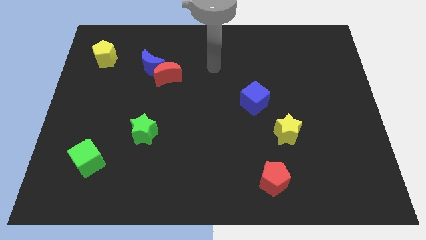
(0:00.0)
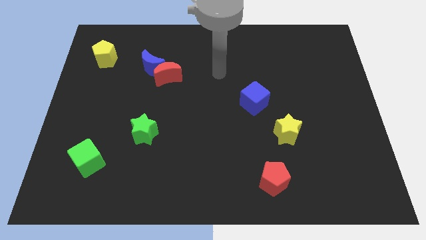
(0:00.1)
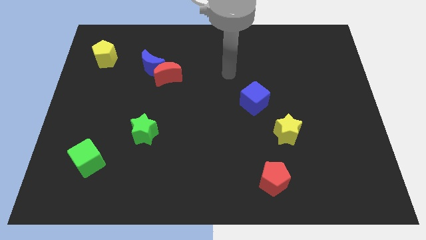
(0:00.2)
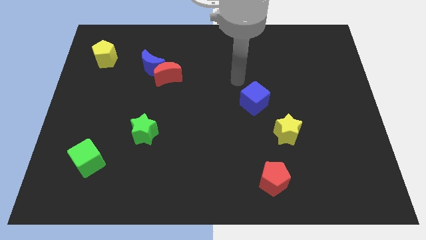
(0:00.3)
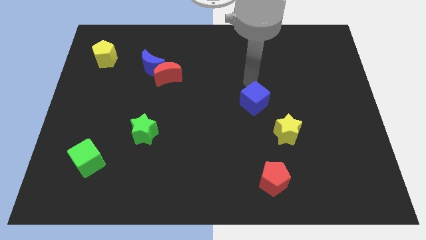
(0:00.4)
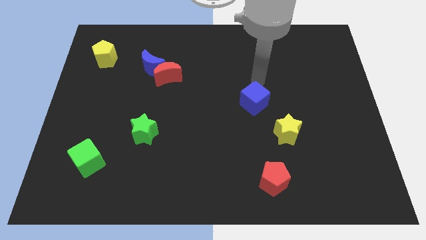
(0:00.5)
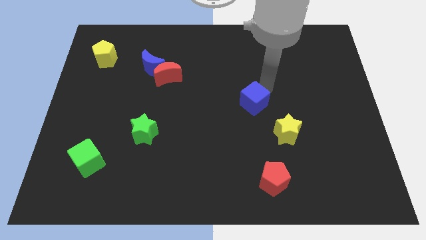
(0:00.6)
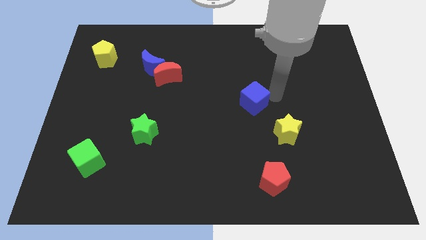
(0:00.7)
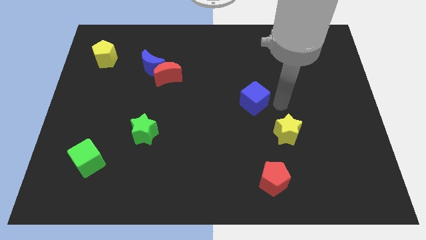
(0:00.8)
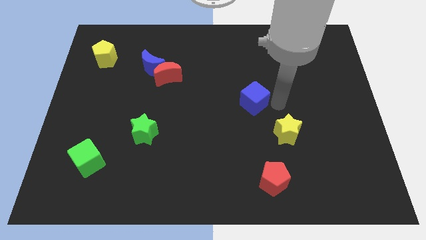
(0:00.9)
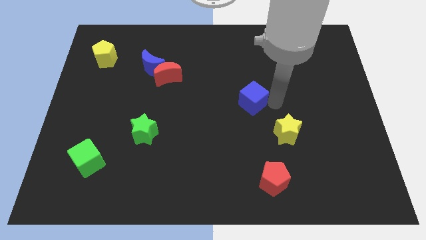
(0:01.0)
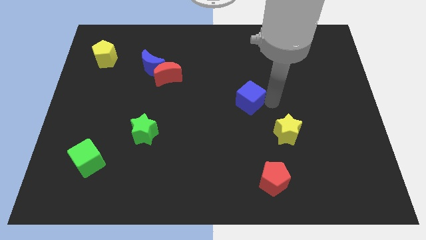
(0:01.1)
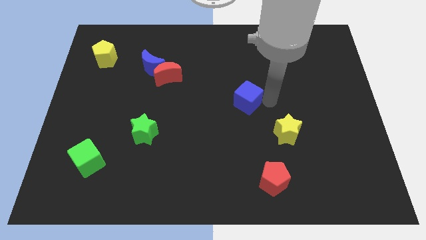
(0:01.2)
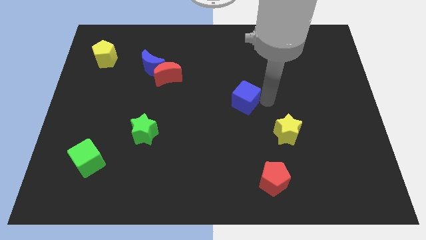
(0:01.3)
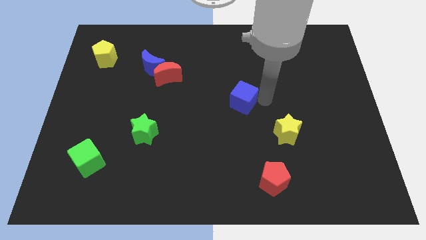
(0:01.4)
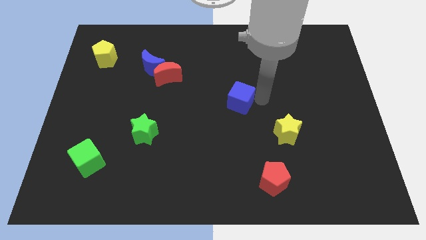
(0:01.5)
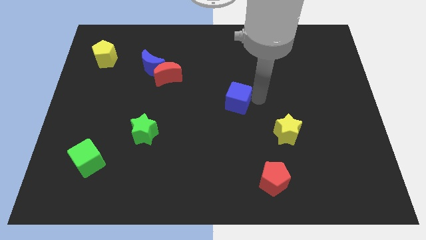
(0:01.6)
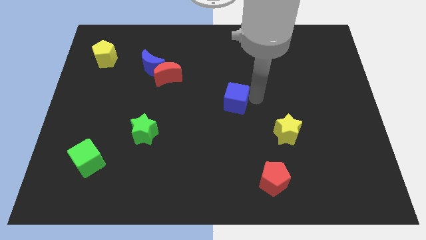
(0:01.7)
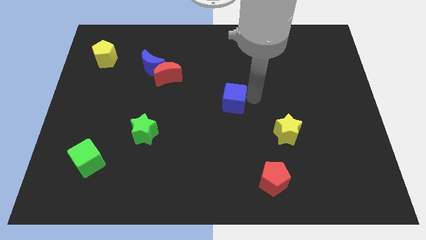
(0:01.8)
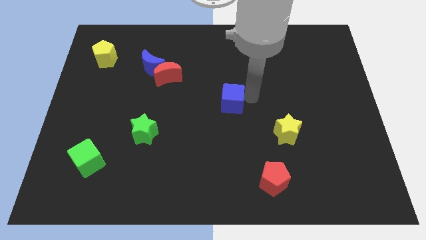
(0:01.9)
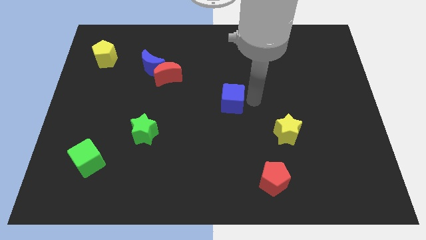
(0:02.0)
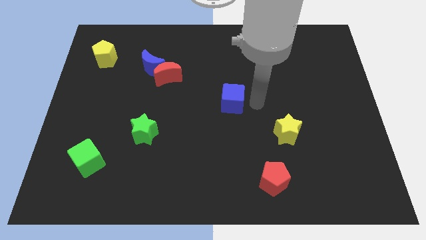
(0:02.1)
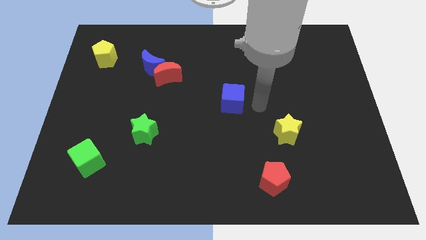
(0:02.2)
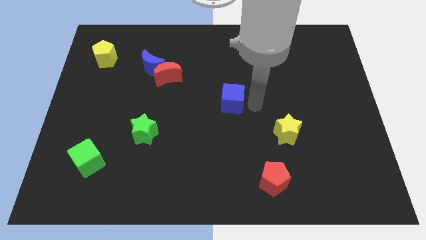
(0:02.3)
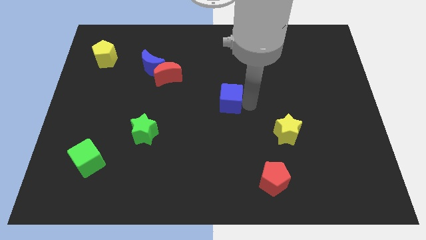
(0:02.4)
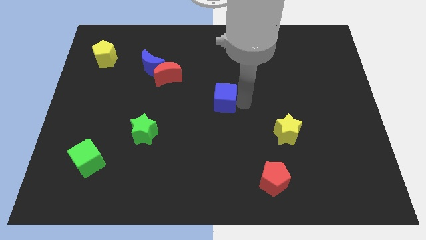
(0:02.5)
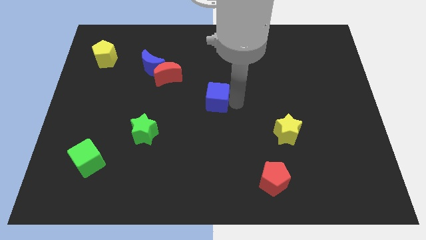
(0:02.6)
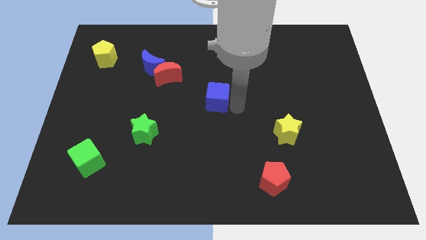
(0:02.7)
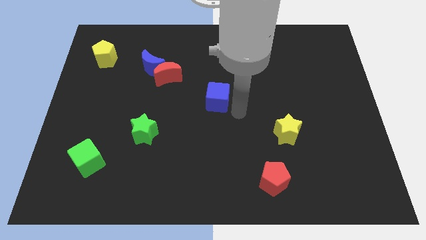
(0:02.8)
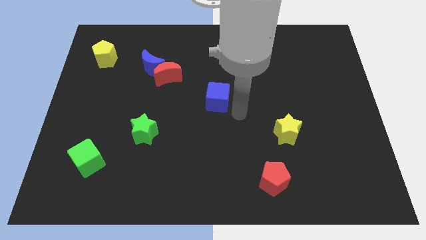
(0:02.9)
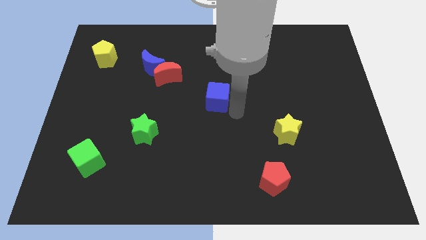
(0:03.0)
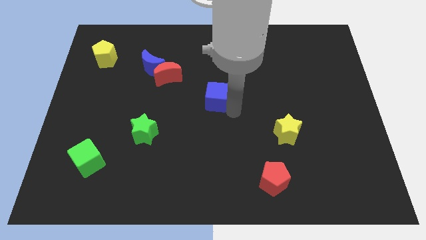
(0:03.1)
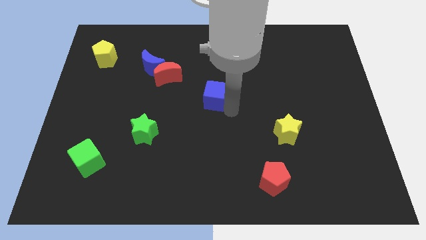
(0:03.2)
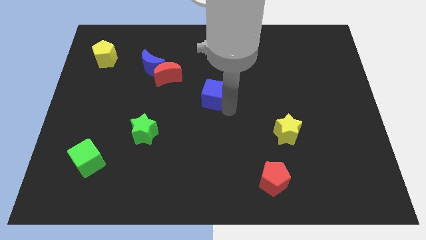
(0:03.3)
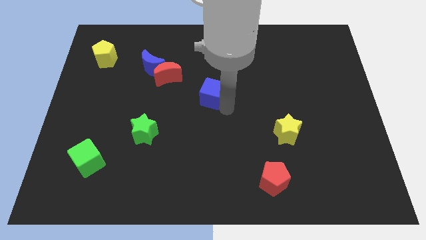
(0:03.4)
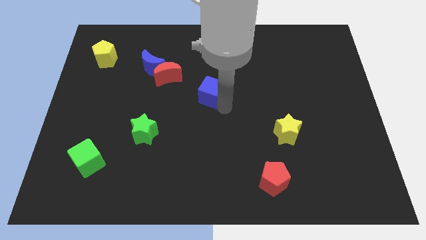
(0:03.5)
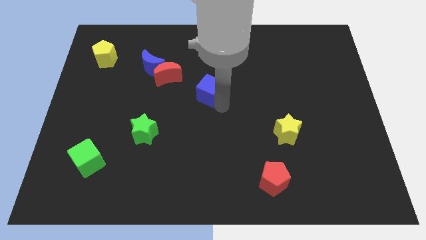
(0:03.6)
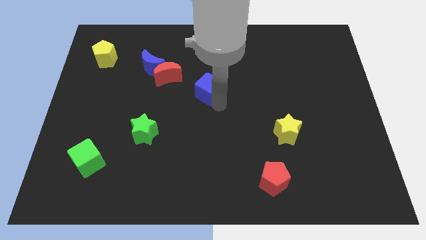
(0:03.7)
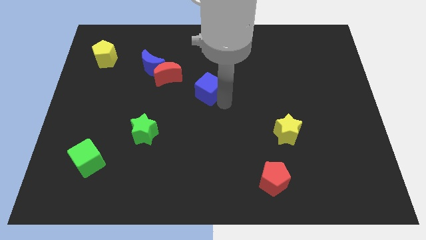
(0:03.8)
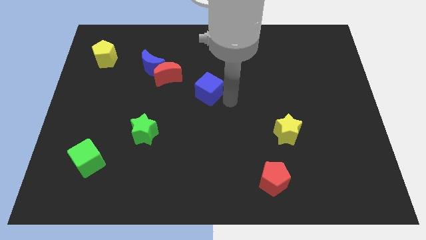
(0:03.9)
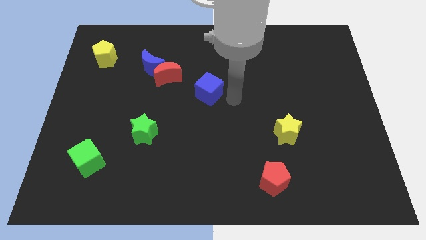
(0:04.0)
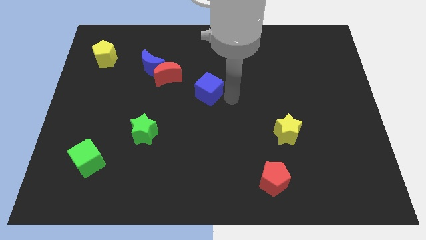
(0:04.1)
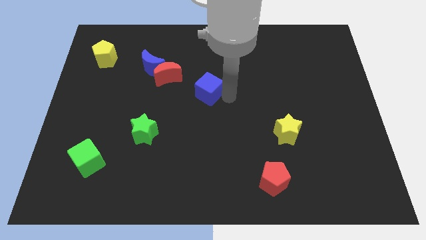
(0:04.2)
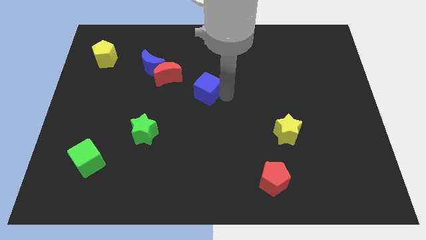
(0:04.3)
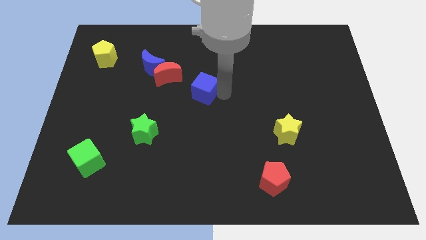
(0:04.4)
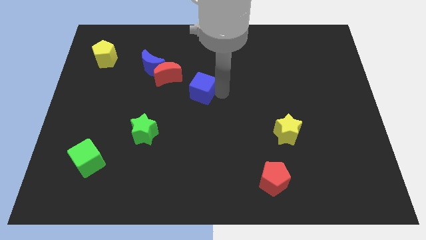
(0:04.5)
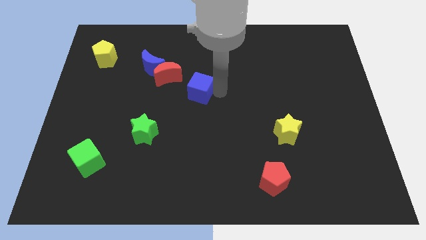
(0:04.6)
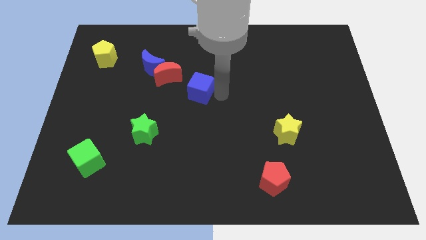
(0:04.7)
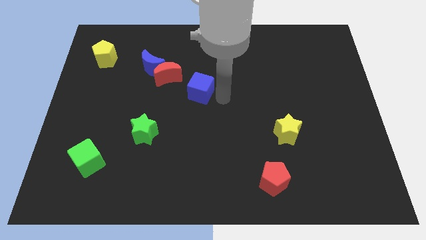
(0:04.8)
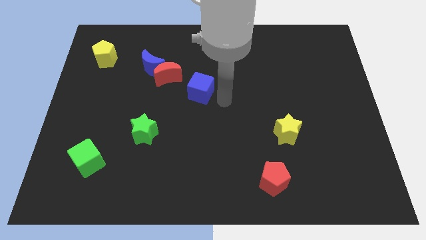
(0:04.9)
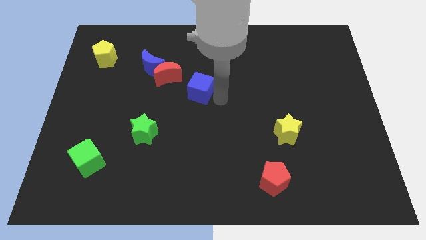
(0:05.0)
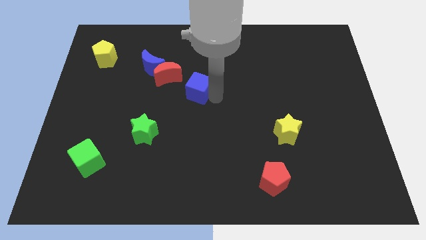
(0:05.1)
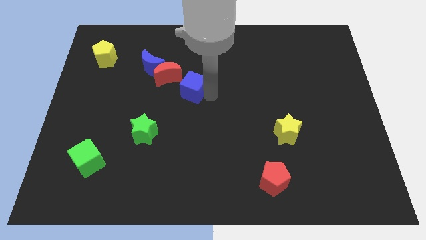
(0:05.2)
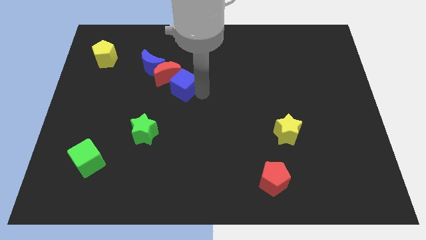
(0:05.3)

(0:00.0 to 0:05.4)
push the blue cube close to the red moon

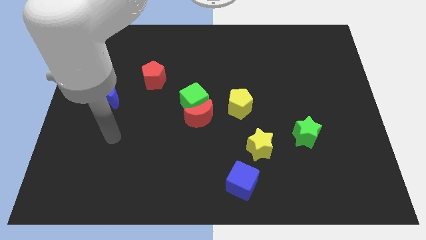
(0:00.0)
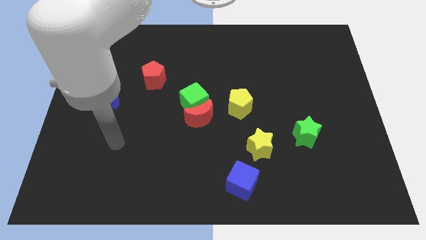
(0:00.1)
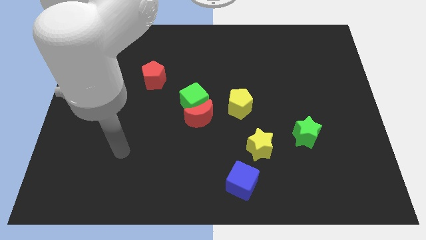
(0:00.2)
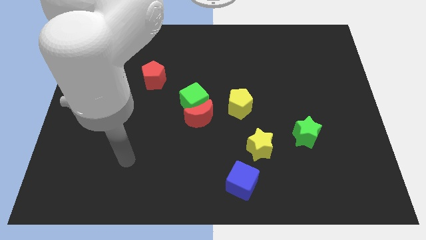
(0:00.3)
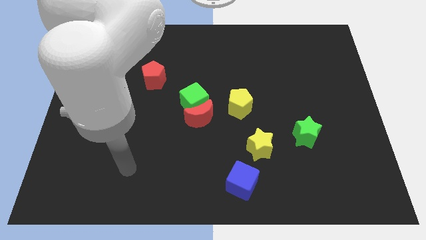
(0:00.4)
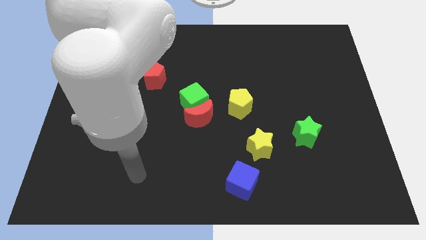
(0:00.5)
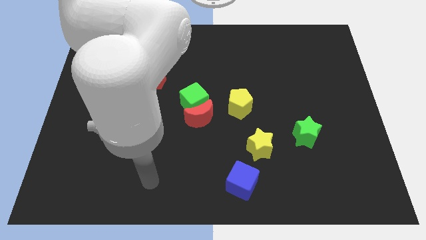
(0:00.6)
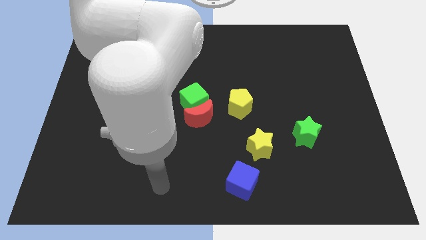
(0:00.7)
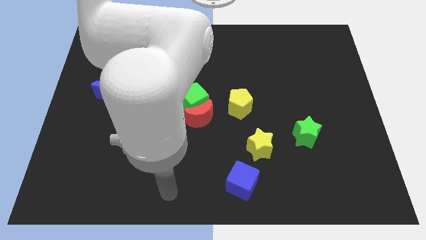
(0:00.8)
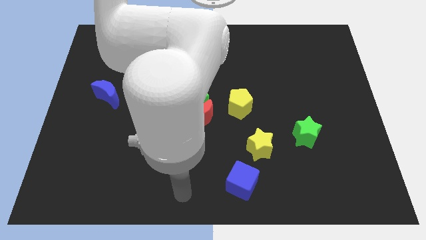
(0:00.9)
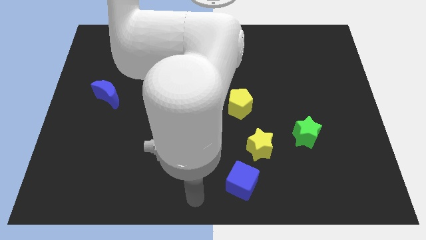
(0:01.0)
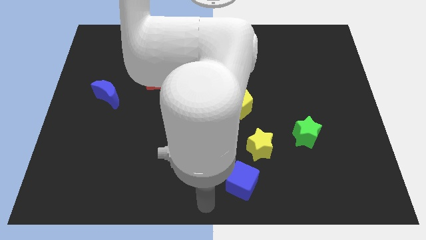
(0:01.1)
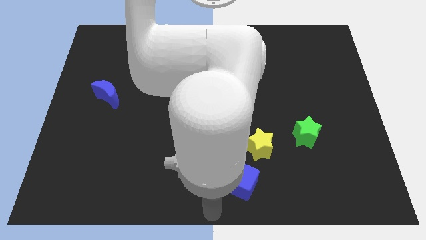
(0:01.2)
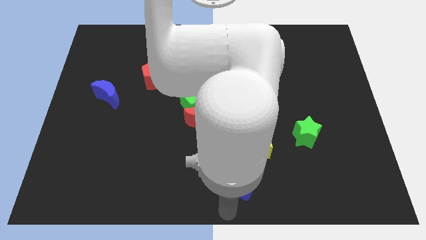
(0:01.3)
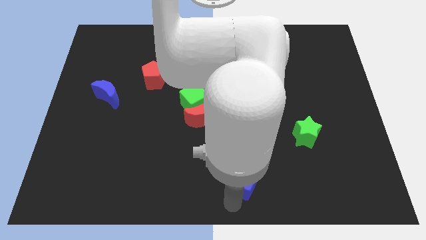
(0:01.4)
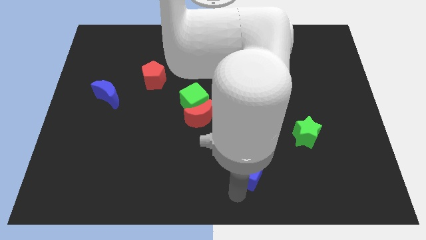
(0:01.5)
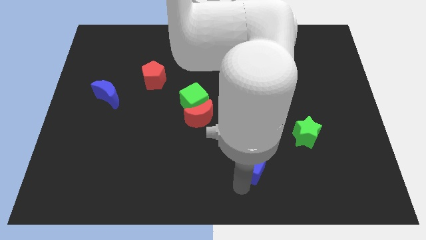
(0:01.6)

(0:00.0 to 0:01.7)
push the blue cube close to the yellow star
